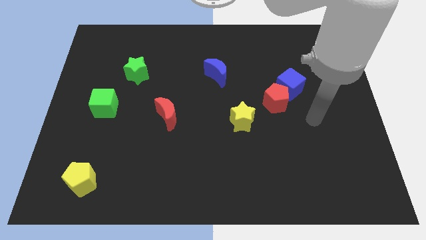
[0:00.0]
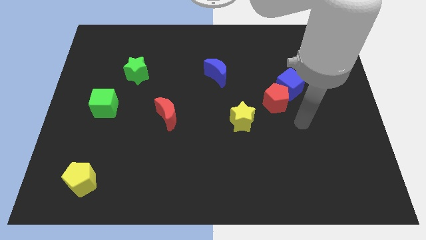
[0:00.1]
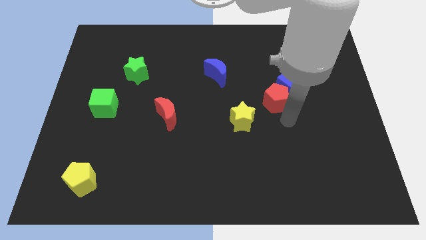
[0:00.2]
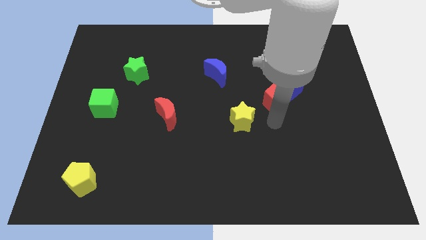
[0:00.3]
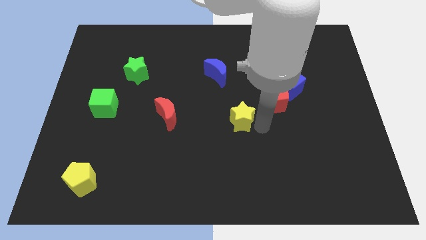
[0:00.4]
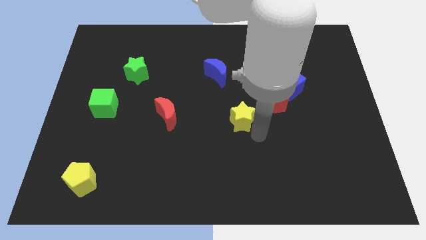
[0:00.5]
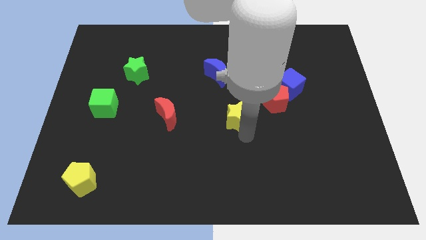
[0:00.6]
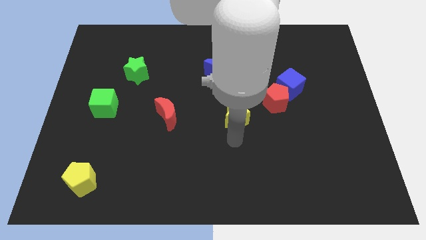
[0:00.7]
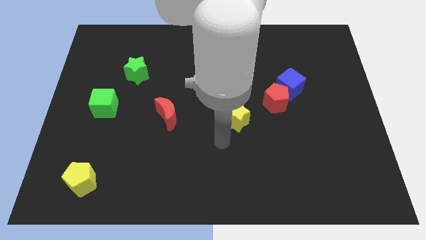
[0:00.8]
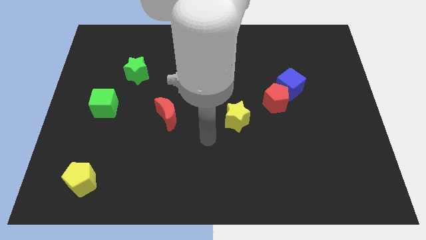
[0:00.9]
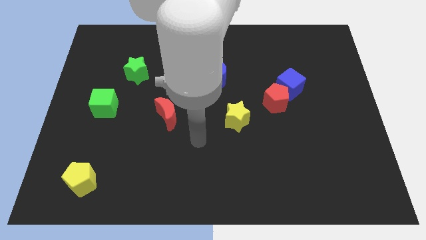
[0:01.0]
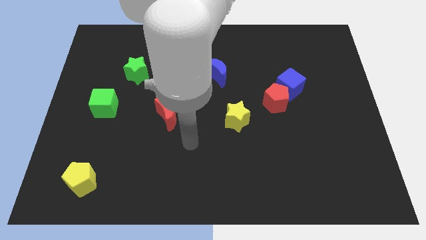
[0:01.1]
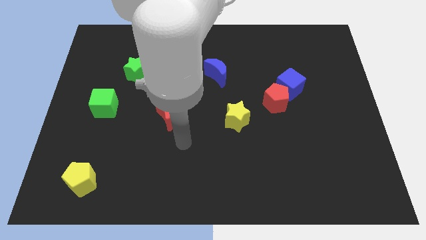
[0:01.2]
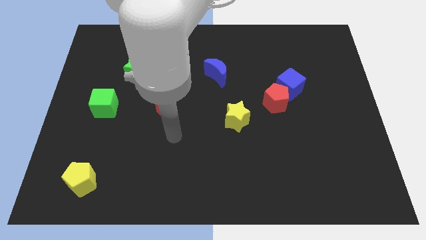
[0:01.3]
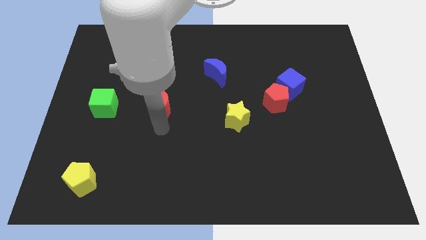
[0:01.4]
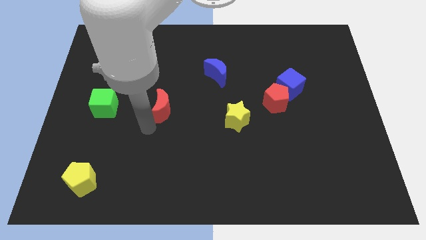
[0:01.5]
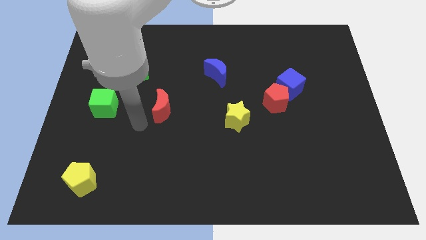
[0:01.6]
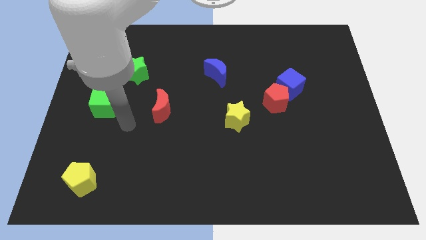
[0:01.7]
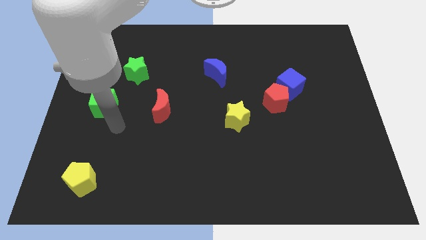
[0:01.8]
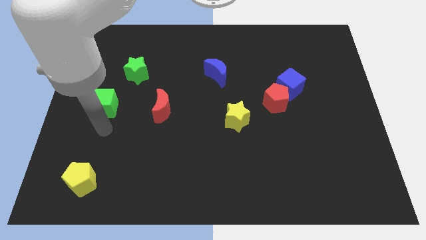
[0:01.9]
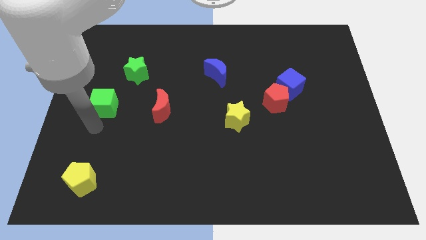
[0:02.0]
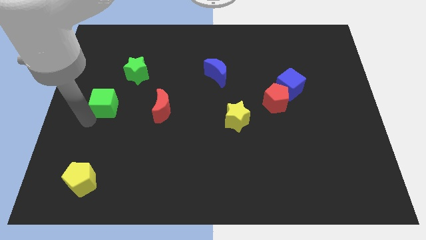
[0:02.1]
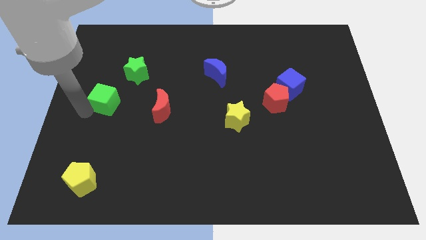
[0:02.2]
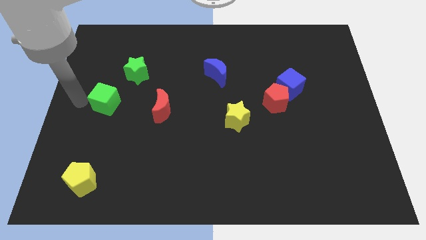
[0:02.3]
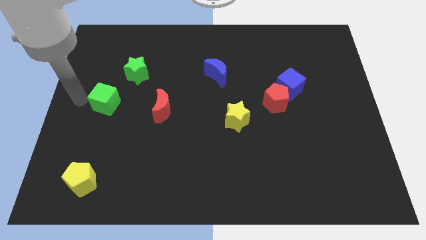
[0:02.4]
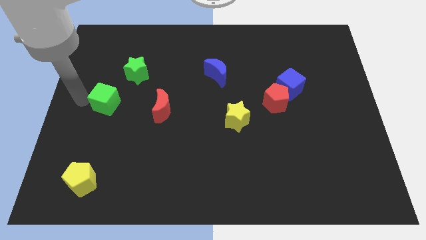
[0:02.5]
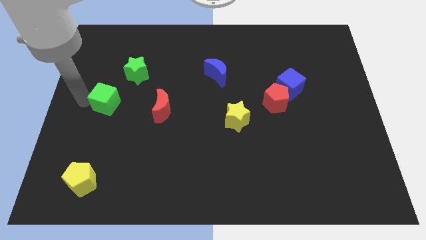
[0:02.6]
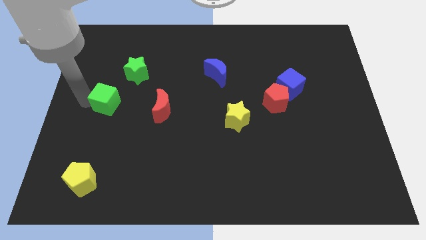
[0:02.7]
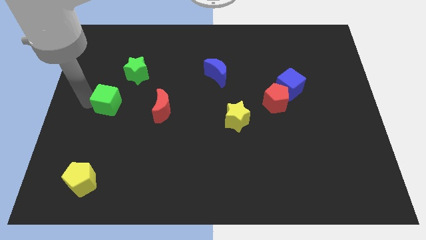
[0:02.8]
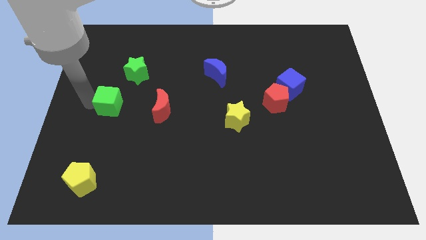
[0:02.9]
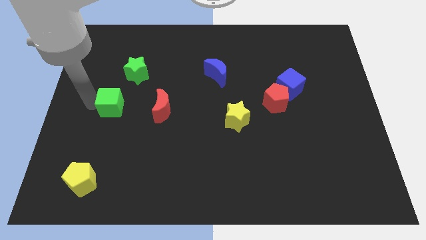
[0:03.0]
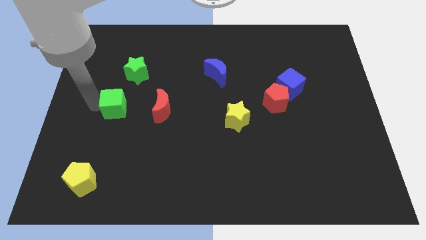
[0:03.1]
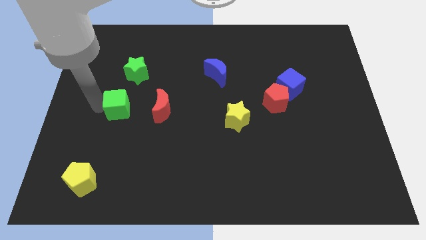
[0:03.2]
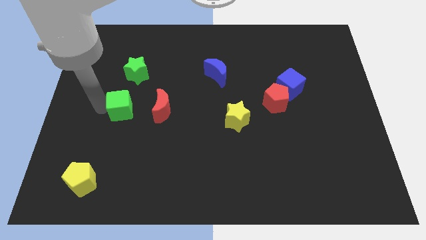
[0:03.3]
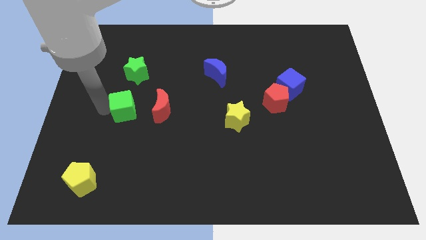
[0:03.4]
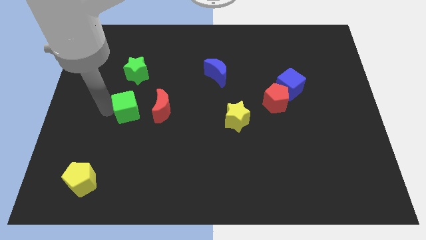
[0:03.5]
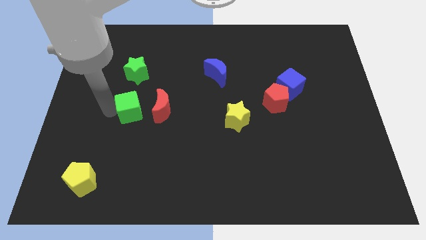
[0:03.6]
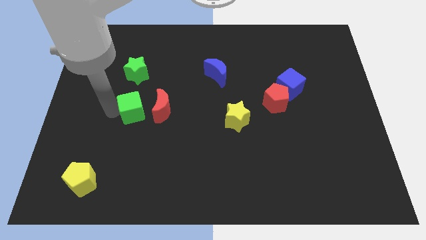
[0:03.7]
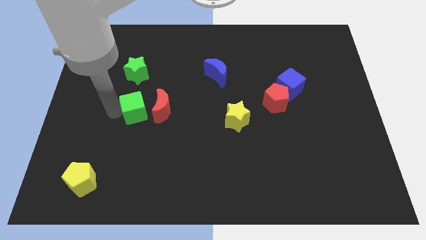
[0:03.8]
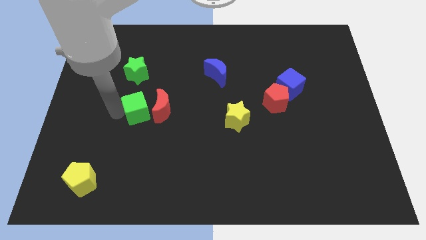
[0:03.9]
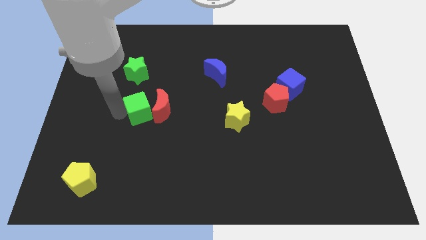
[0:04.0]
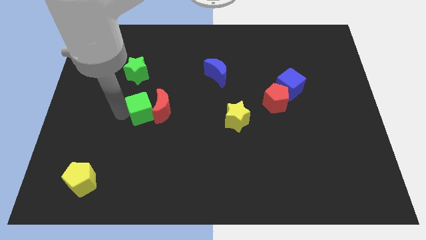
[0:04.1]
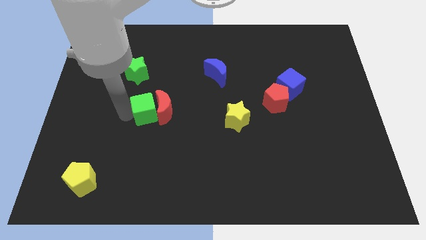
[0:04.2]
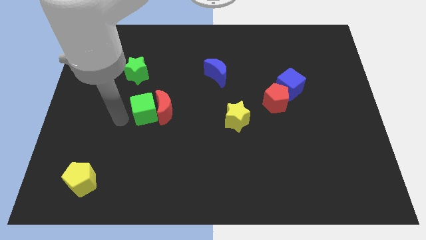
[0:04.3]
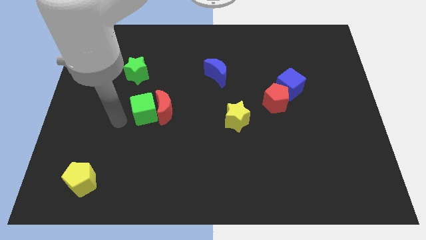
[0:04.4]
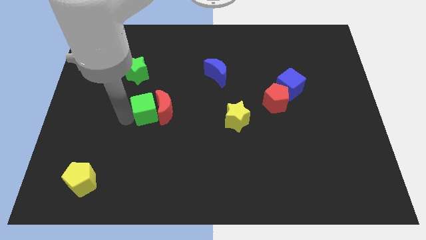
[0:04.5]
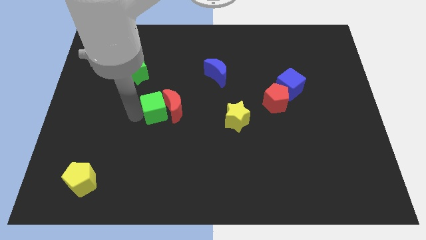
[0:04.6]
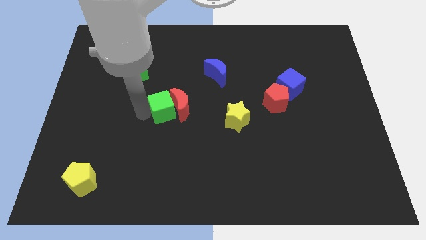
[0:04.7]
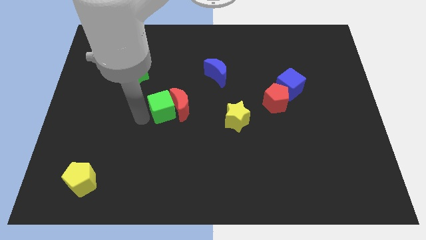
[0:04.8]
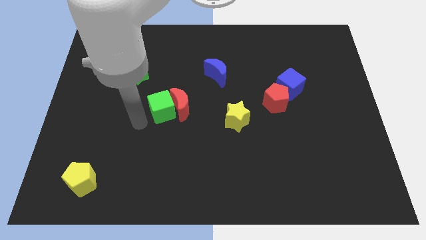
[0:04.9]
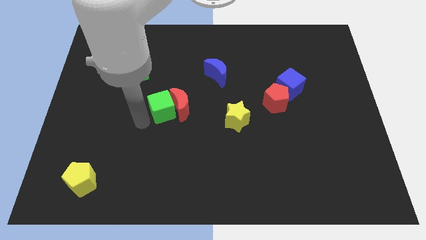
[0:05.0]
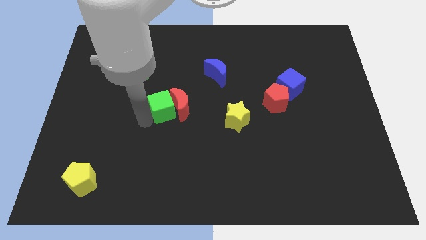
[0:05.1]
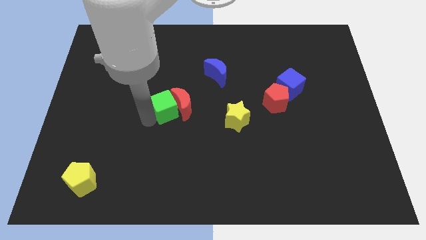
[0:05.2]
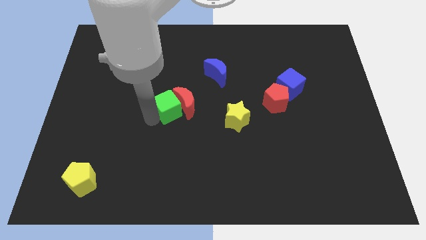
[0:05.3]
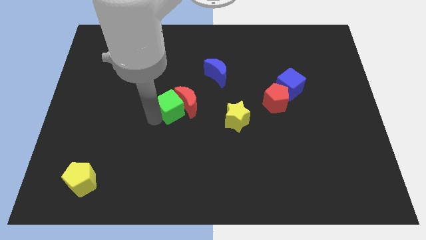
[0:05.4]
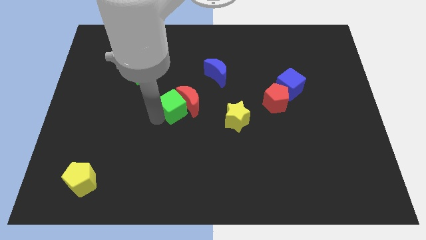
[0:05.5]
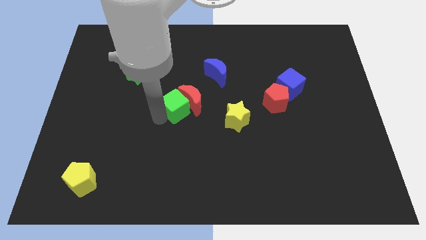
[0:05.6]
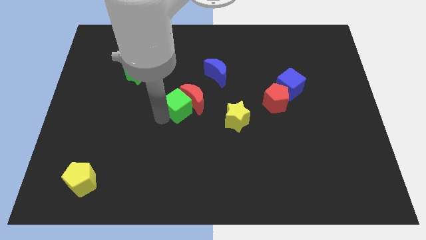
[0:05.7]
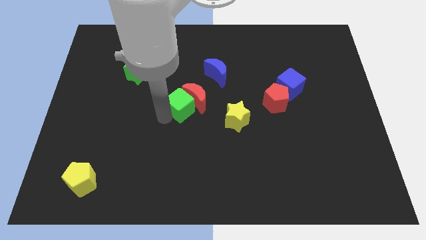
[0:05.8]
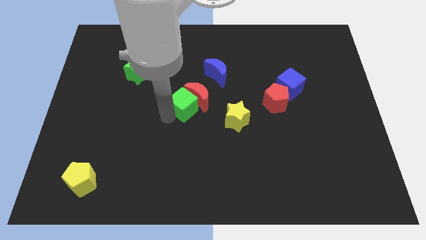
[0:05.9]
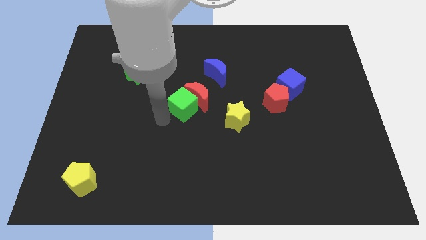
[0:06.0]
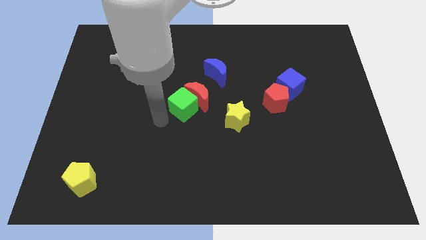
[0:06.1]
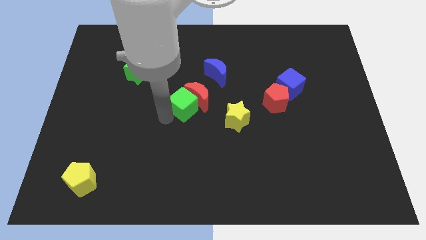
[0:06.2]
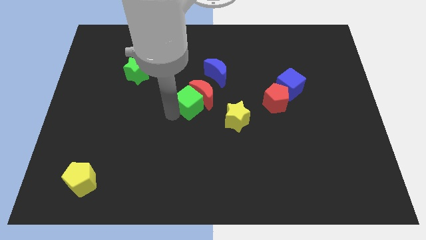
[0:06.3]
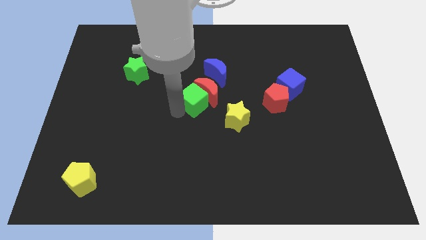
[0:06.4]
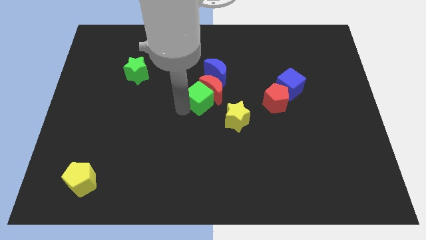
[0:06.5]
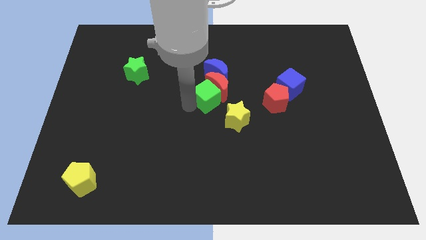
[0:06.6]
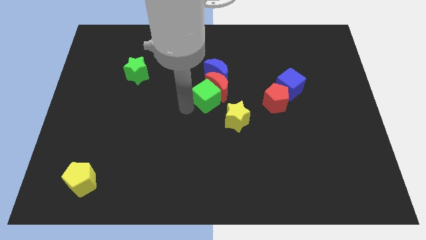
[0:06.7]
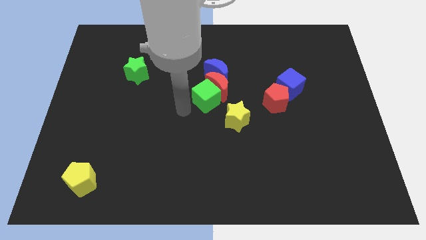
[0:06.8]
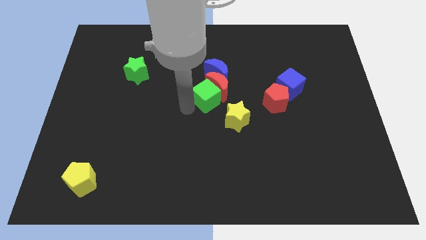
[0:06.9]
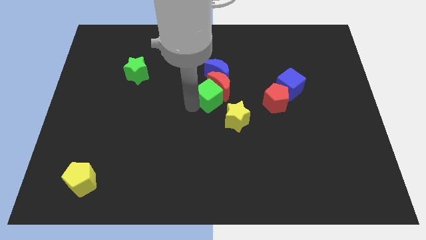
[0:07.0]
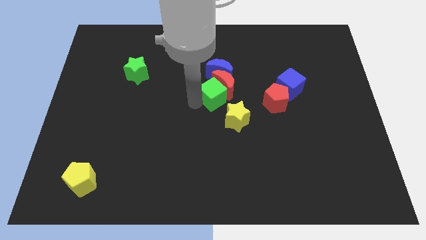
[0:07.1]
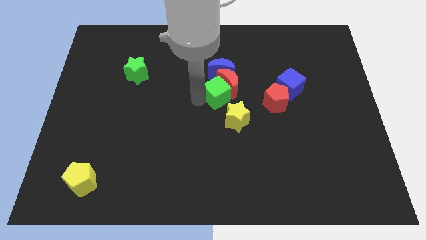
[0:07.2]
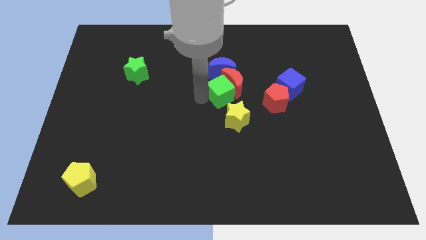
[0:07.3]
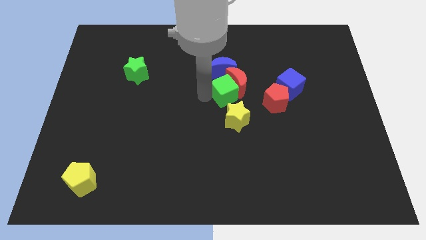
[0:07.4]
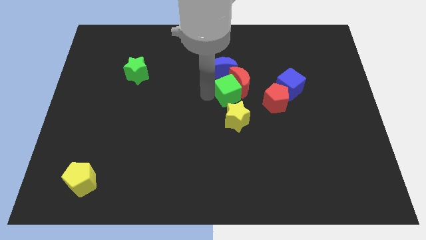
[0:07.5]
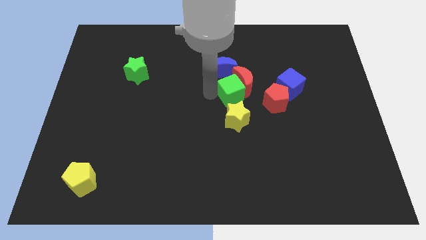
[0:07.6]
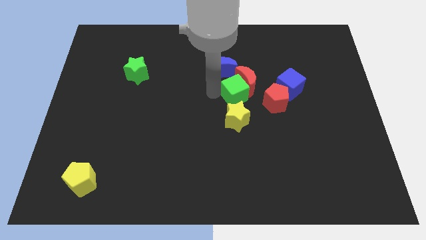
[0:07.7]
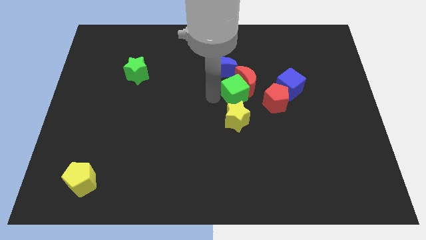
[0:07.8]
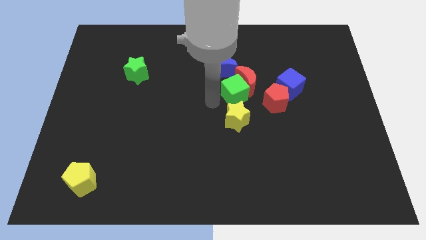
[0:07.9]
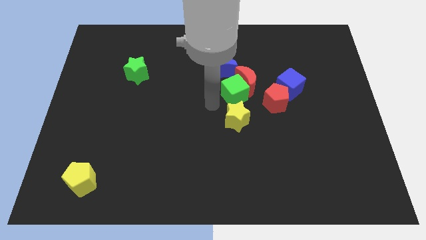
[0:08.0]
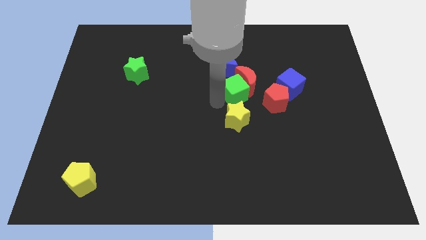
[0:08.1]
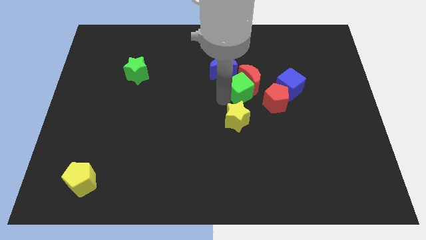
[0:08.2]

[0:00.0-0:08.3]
move the green cube to the top left side of the red pentagon
